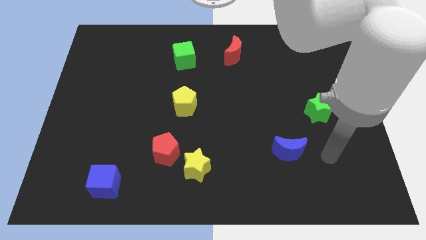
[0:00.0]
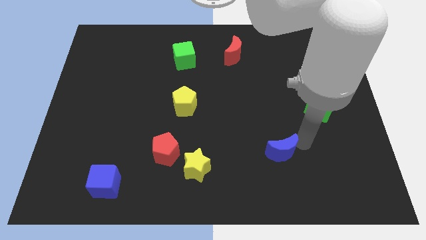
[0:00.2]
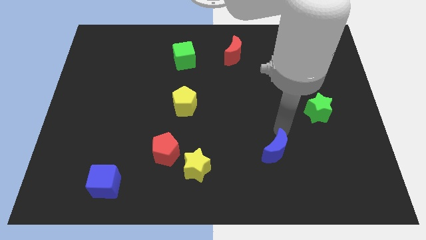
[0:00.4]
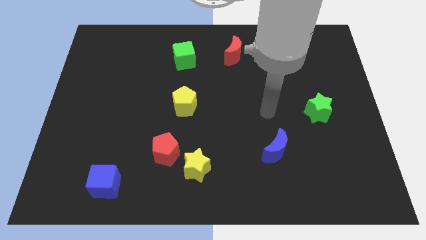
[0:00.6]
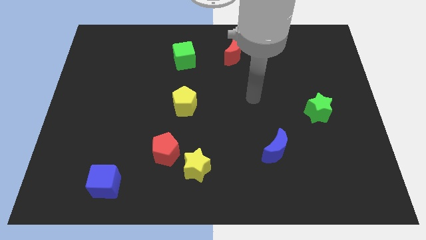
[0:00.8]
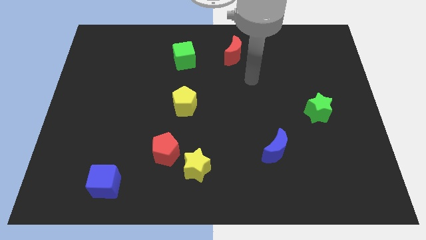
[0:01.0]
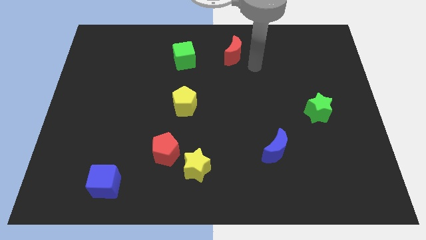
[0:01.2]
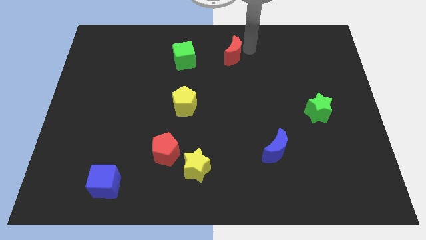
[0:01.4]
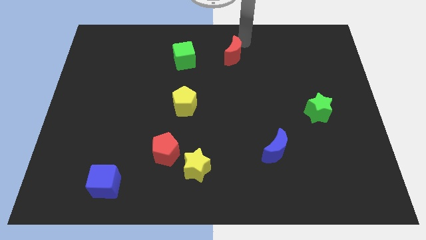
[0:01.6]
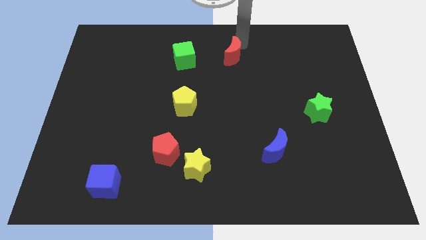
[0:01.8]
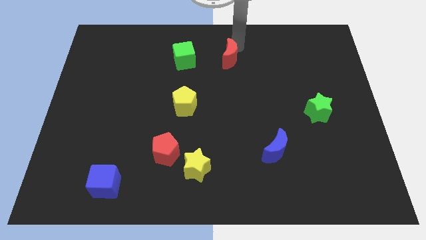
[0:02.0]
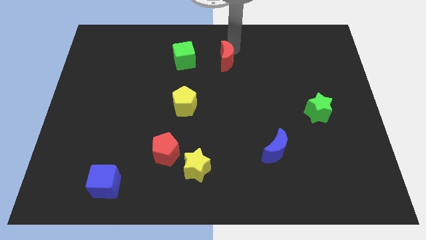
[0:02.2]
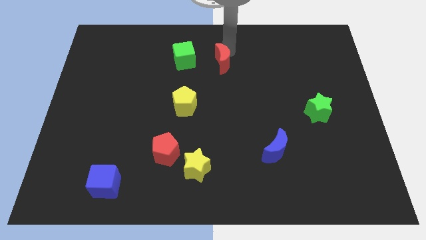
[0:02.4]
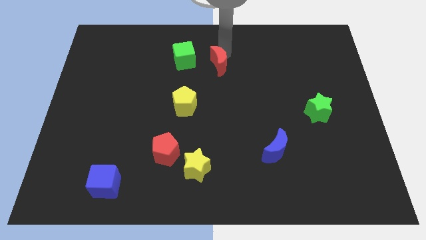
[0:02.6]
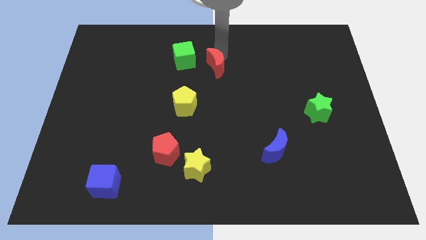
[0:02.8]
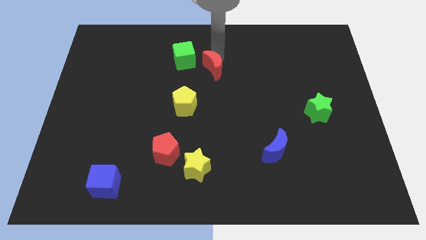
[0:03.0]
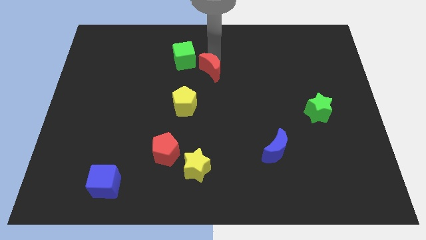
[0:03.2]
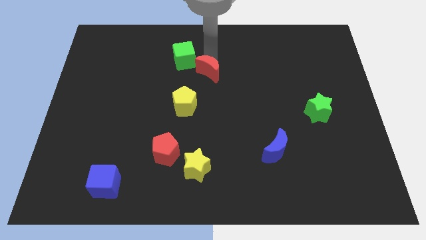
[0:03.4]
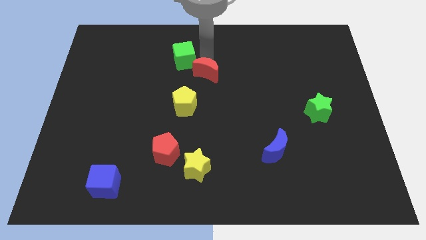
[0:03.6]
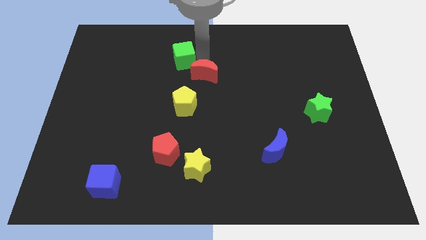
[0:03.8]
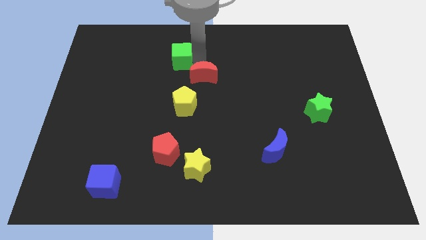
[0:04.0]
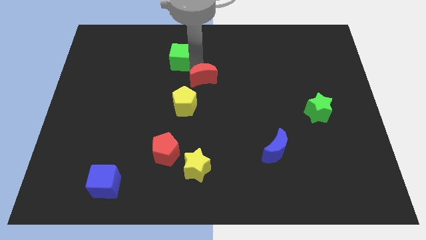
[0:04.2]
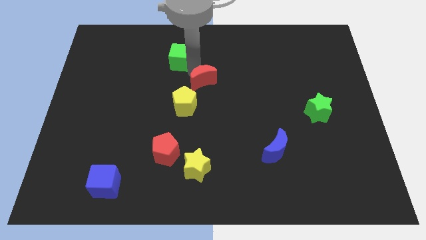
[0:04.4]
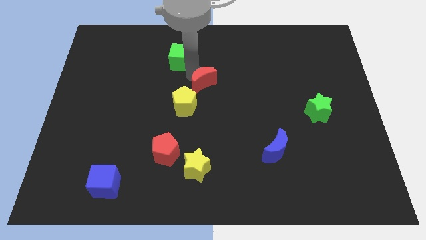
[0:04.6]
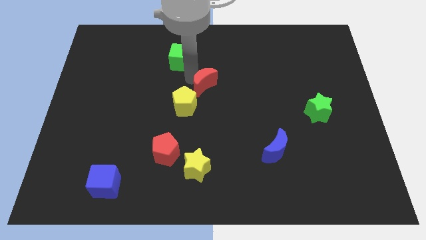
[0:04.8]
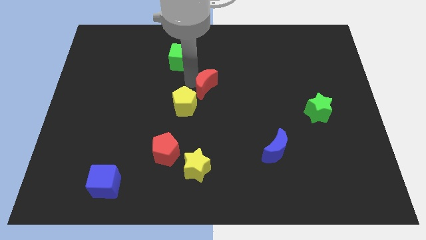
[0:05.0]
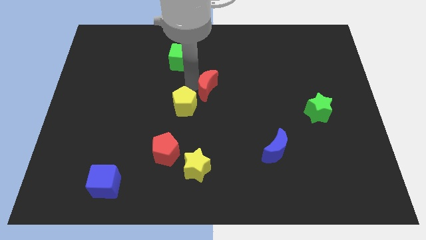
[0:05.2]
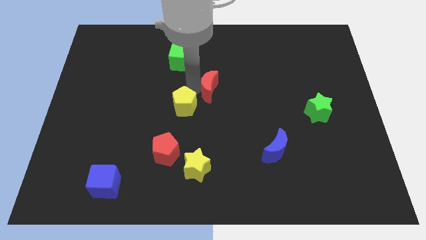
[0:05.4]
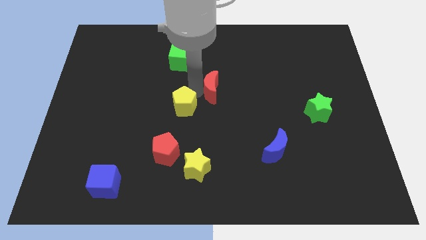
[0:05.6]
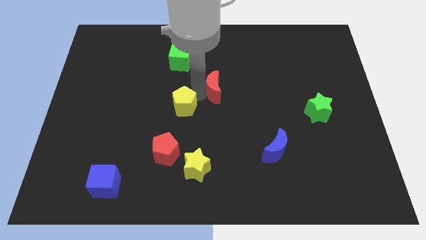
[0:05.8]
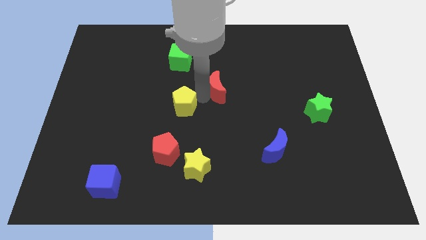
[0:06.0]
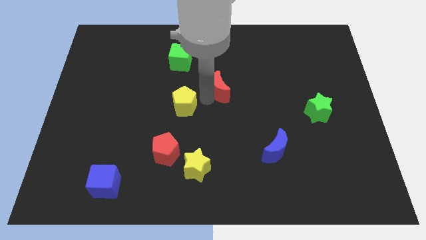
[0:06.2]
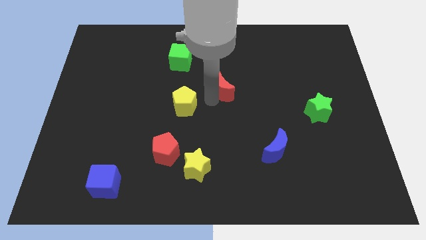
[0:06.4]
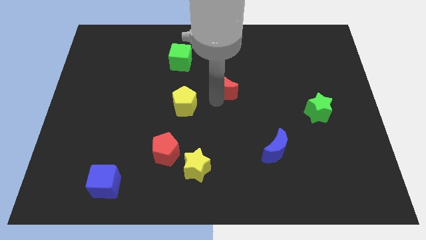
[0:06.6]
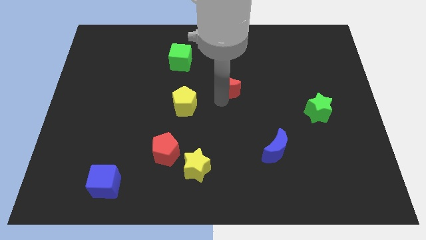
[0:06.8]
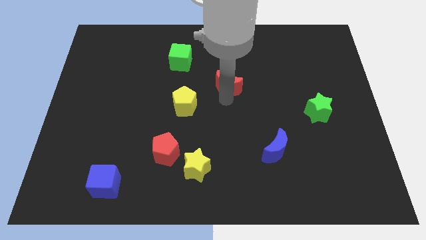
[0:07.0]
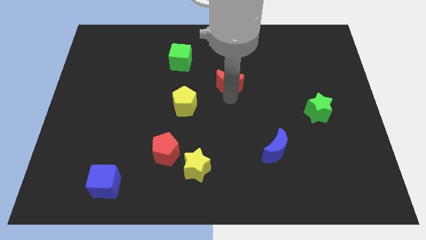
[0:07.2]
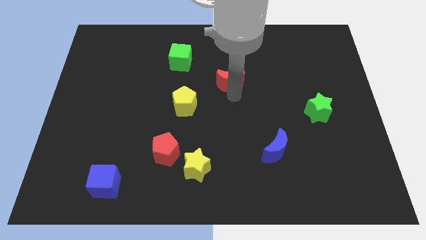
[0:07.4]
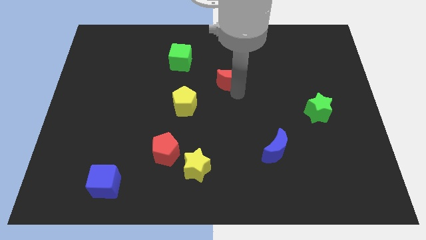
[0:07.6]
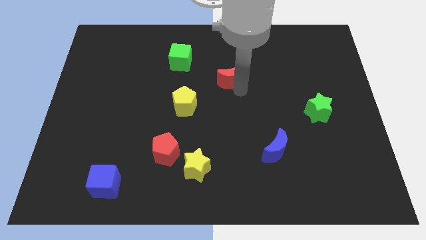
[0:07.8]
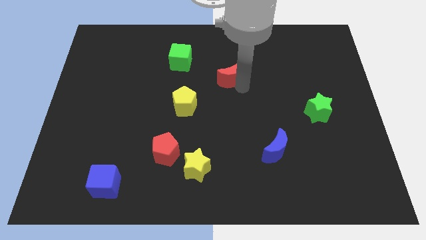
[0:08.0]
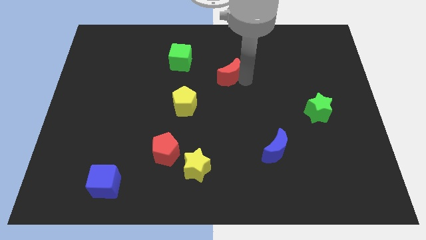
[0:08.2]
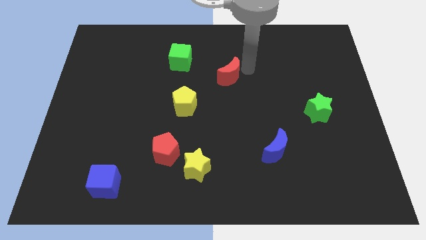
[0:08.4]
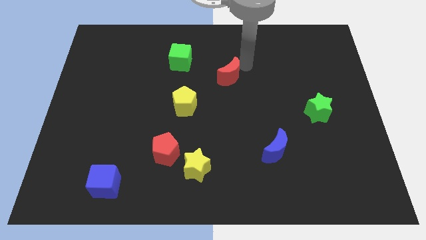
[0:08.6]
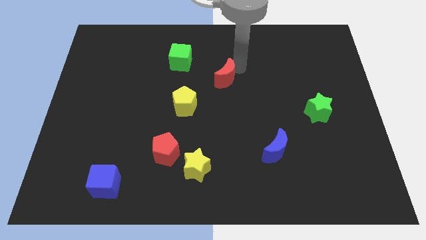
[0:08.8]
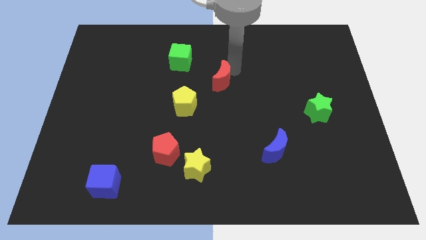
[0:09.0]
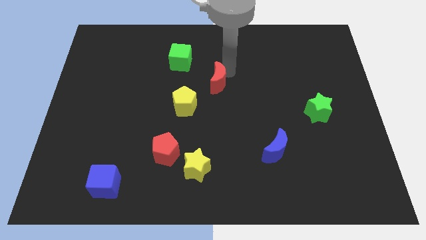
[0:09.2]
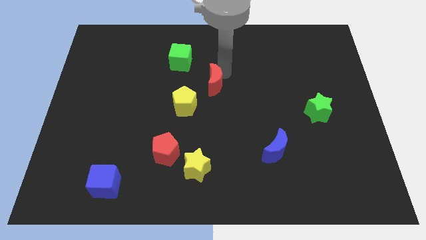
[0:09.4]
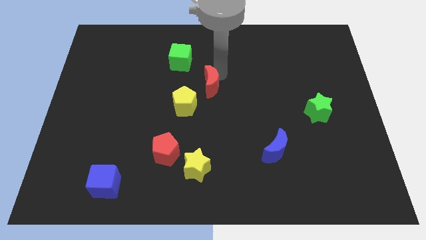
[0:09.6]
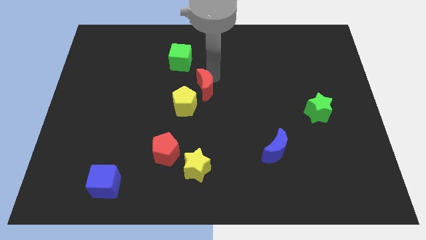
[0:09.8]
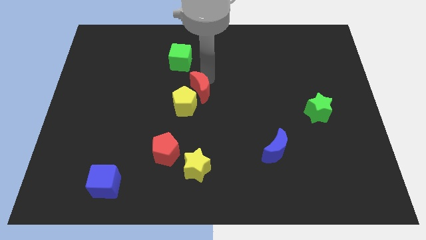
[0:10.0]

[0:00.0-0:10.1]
move the red moon close to the yellow pentagon

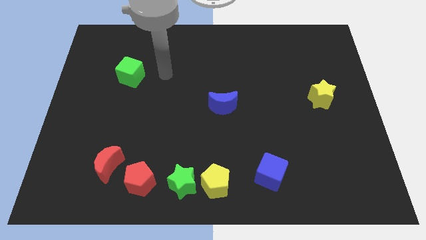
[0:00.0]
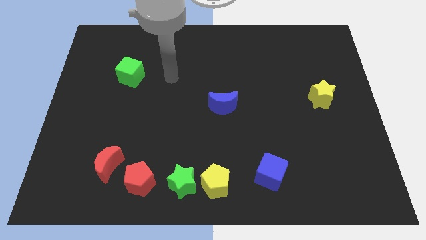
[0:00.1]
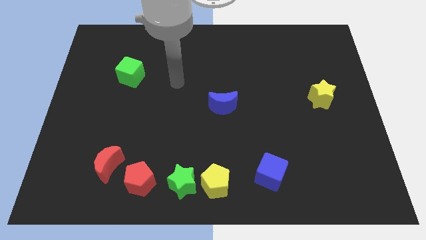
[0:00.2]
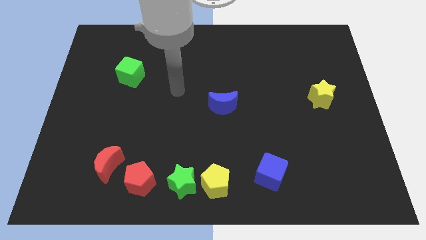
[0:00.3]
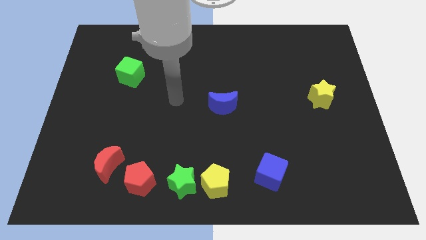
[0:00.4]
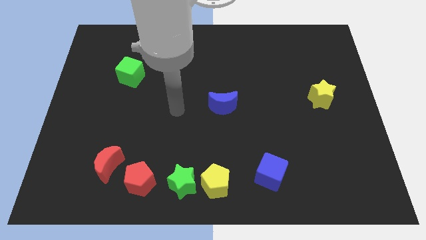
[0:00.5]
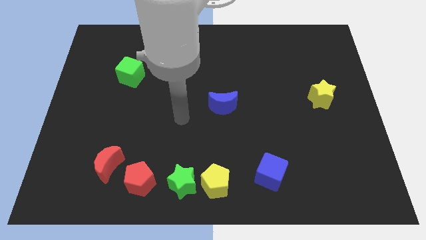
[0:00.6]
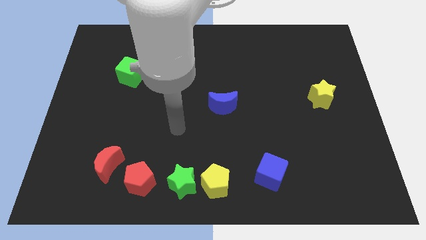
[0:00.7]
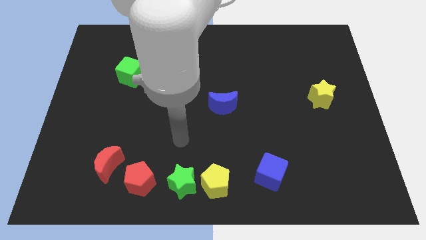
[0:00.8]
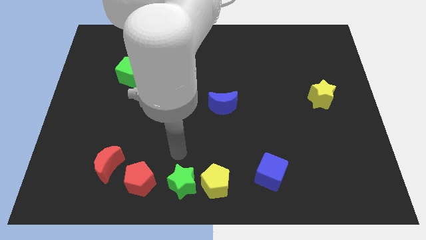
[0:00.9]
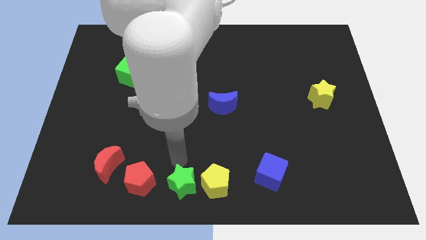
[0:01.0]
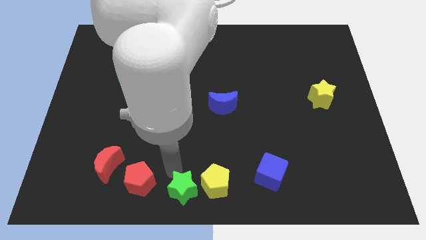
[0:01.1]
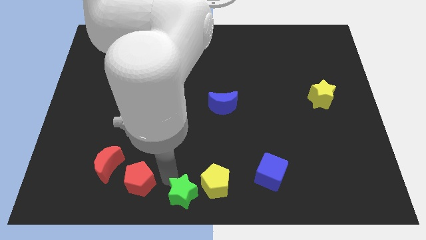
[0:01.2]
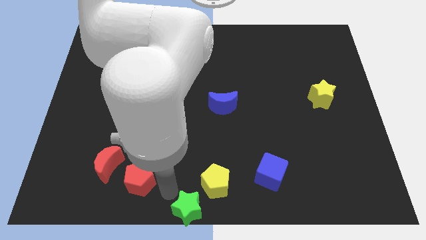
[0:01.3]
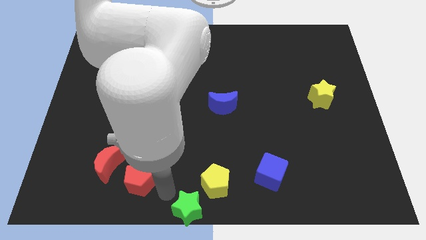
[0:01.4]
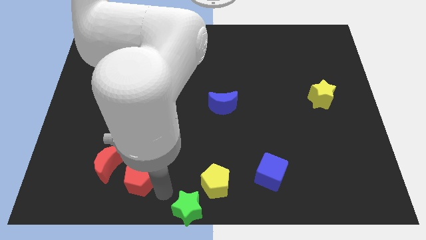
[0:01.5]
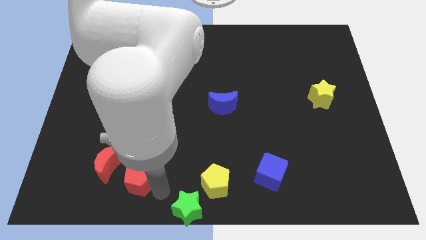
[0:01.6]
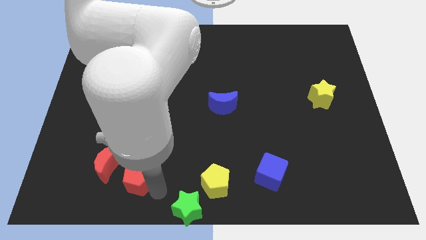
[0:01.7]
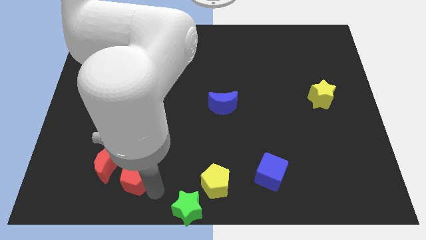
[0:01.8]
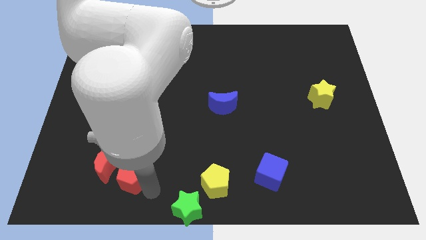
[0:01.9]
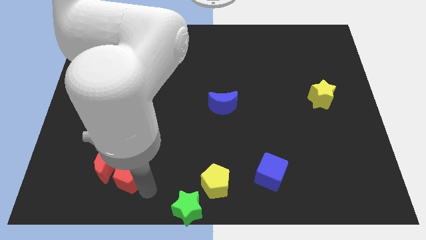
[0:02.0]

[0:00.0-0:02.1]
push the red pentagon to the red moon
